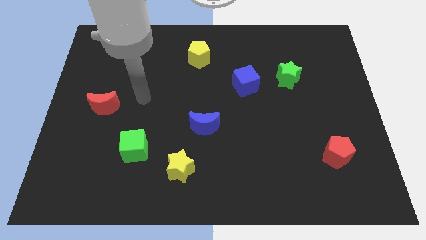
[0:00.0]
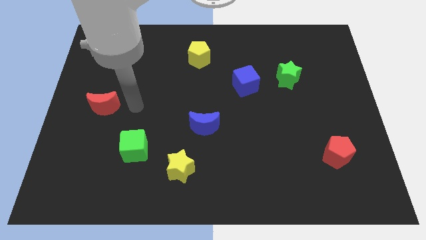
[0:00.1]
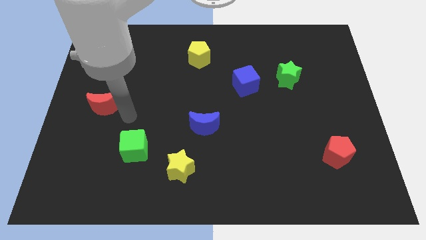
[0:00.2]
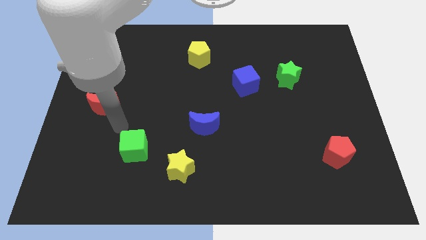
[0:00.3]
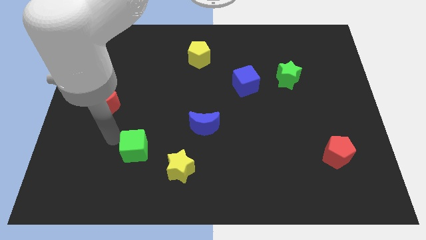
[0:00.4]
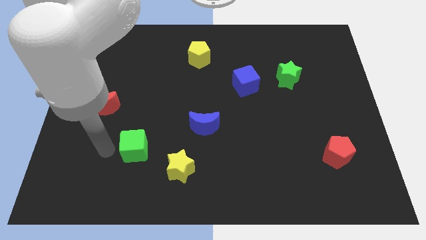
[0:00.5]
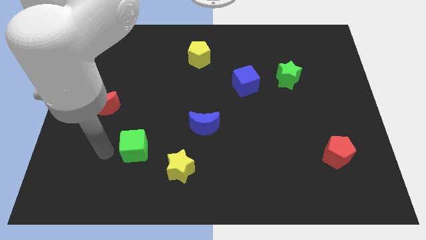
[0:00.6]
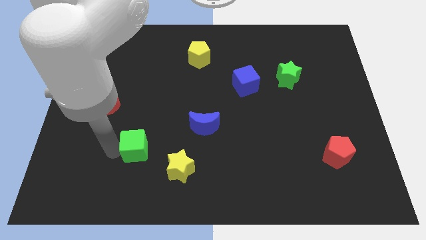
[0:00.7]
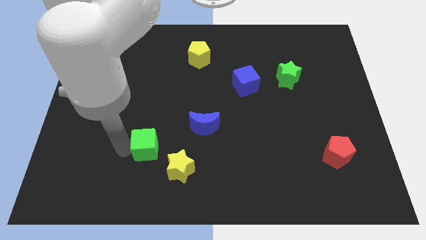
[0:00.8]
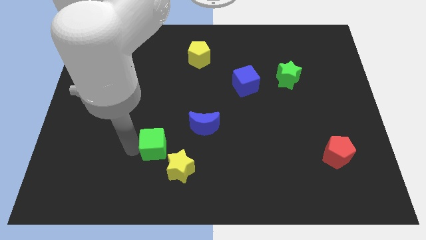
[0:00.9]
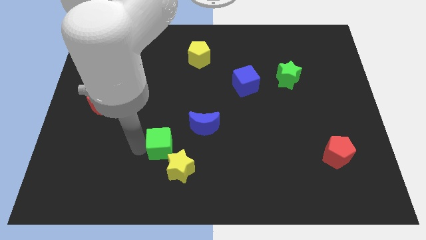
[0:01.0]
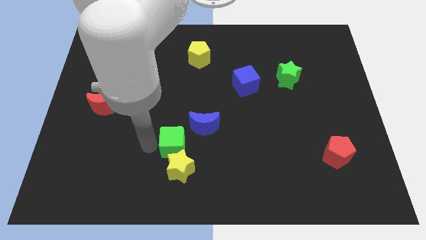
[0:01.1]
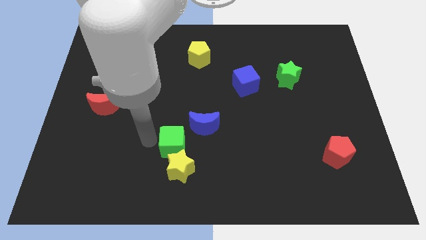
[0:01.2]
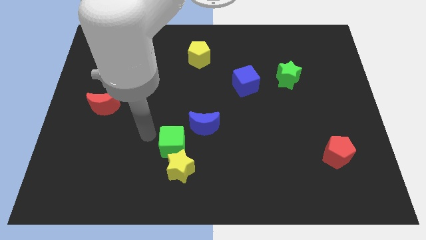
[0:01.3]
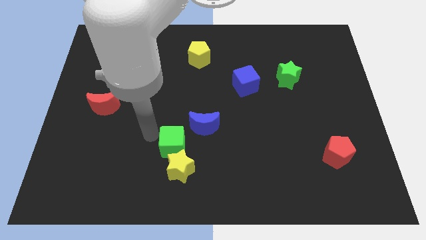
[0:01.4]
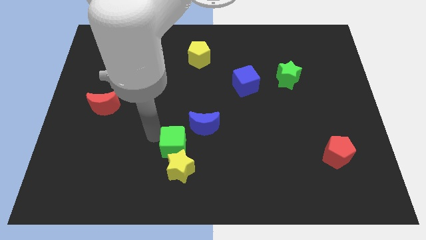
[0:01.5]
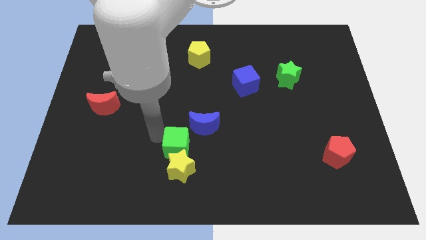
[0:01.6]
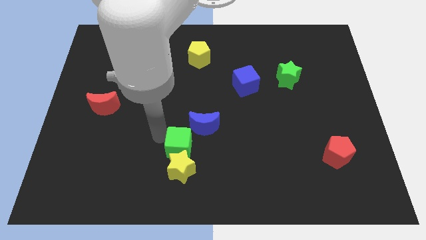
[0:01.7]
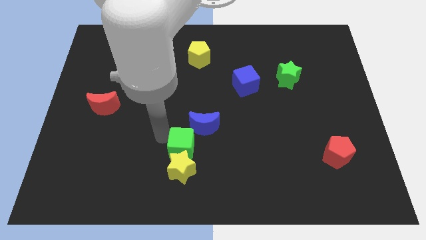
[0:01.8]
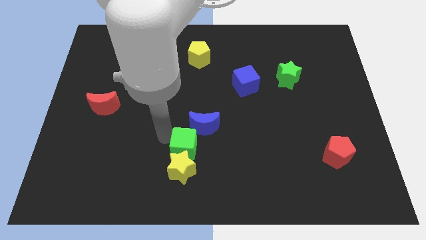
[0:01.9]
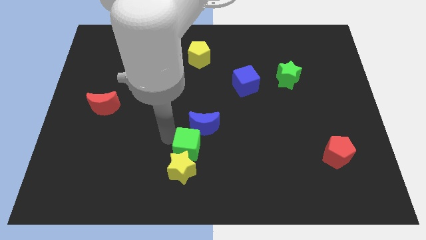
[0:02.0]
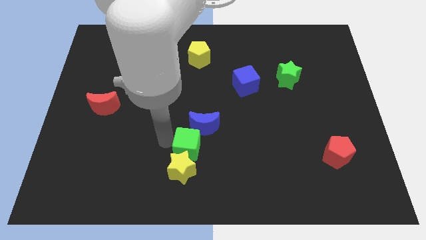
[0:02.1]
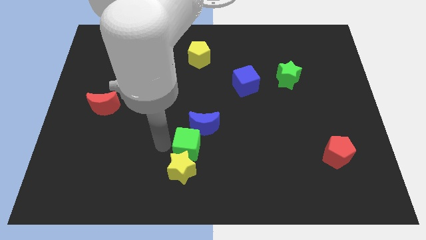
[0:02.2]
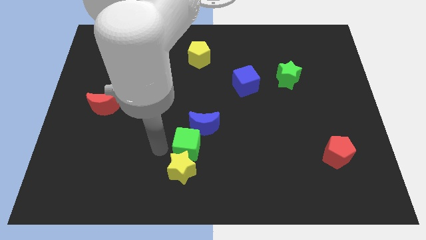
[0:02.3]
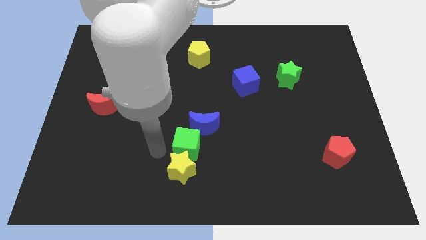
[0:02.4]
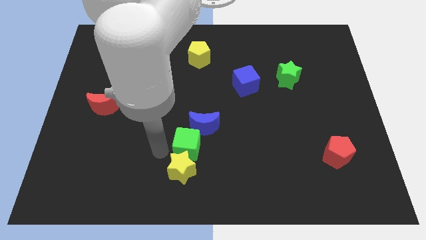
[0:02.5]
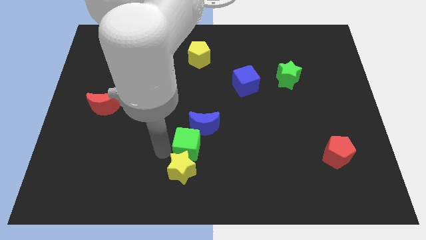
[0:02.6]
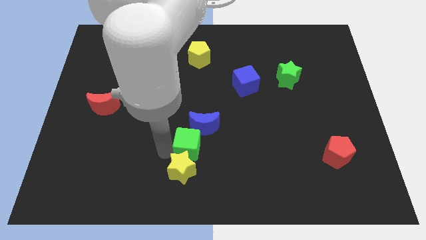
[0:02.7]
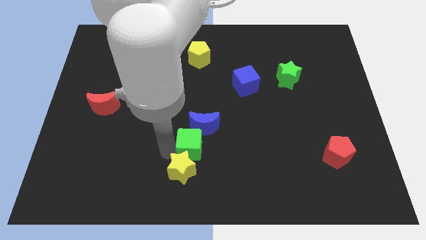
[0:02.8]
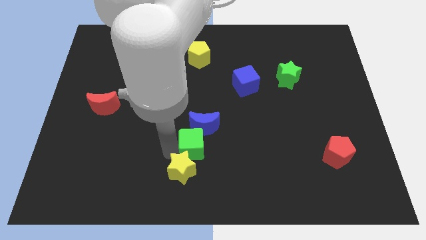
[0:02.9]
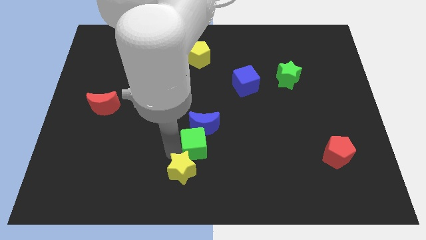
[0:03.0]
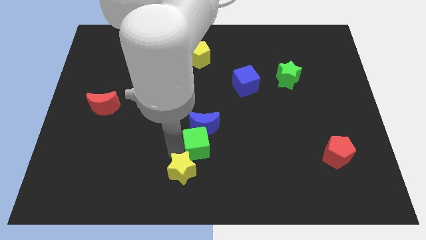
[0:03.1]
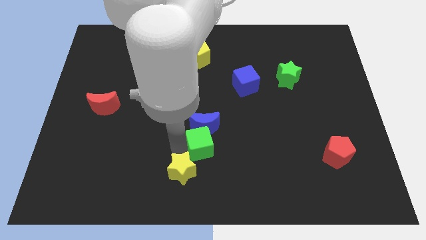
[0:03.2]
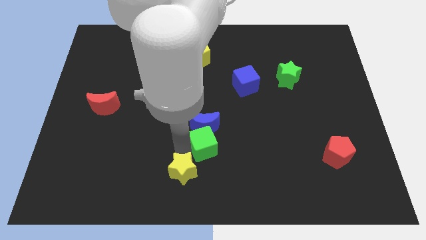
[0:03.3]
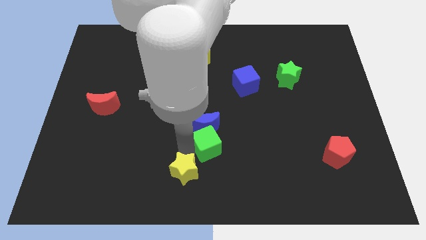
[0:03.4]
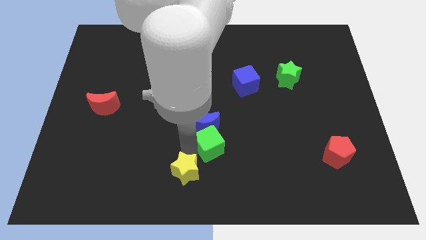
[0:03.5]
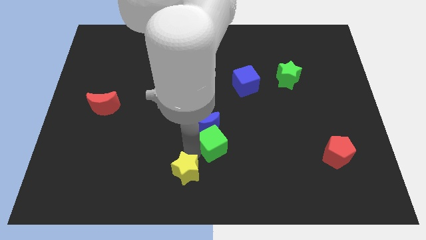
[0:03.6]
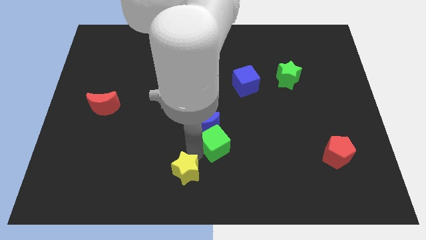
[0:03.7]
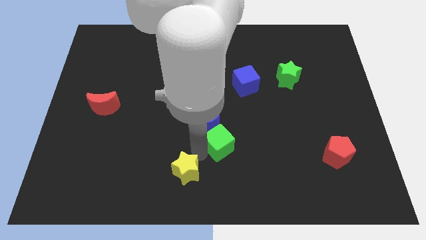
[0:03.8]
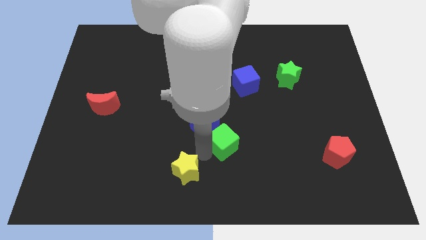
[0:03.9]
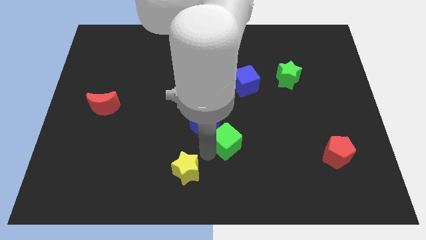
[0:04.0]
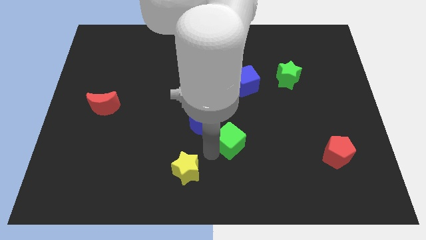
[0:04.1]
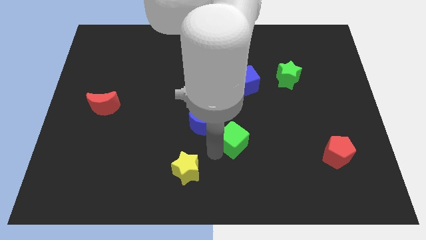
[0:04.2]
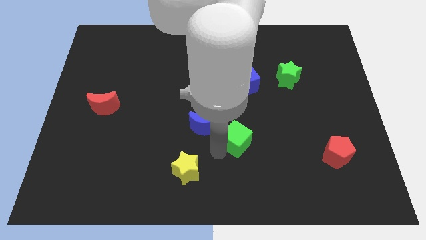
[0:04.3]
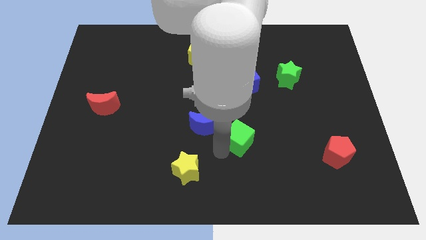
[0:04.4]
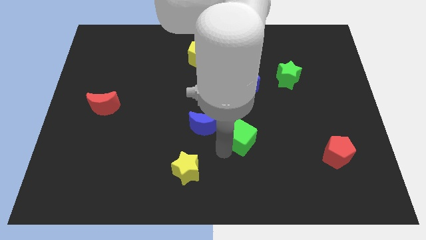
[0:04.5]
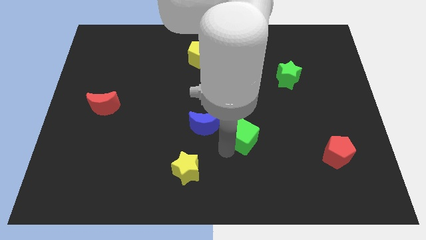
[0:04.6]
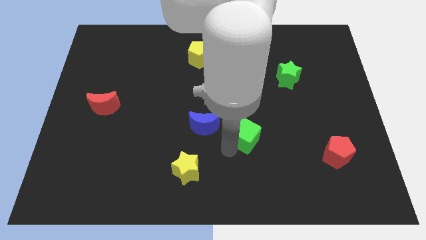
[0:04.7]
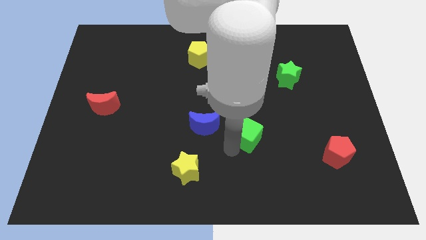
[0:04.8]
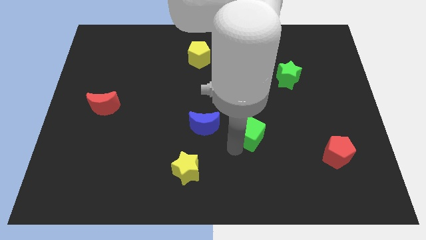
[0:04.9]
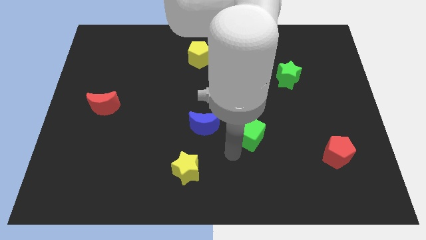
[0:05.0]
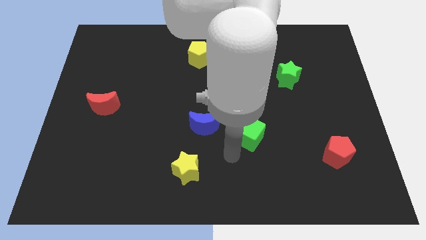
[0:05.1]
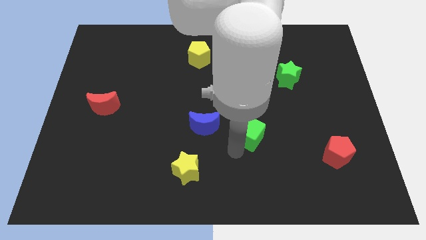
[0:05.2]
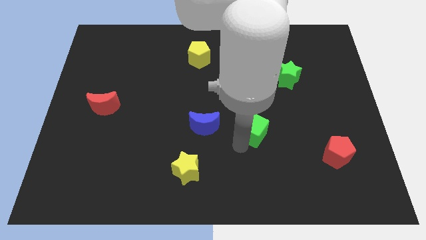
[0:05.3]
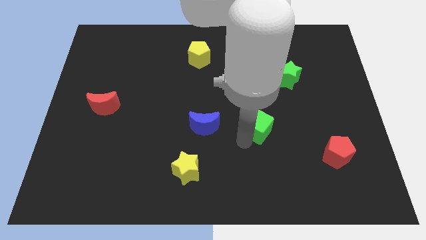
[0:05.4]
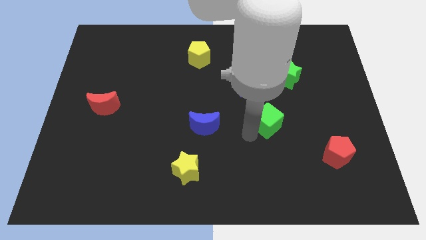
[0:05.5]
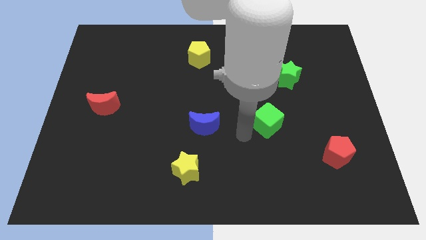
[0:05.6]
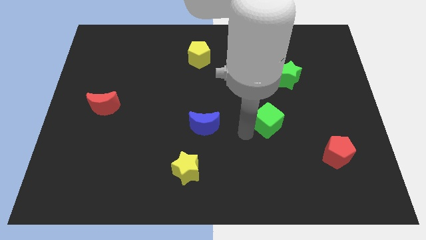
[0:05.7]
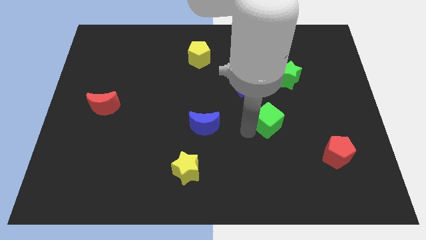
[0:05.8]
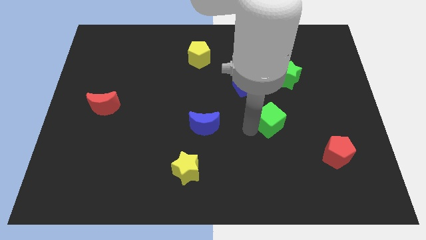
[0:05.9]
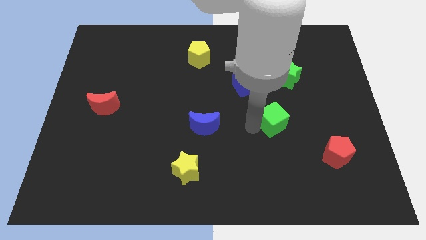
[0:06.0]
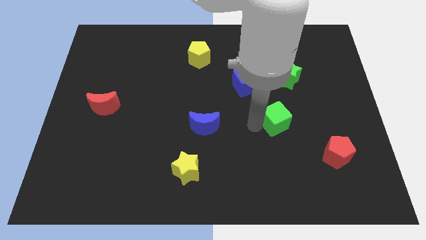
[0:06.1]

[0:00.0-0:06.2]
slide the green cube to the bottom of the green star
